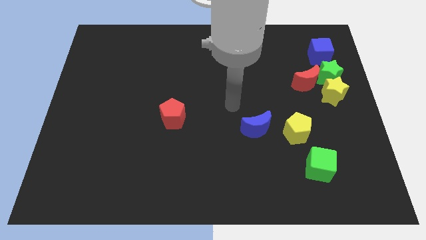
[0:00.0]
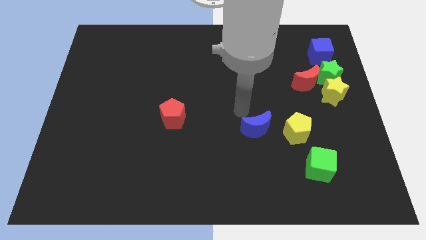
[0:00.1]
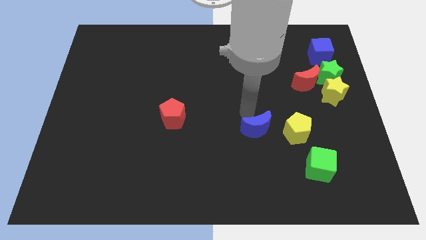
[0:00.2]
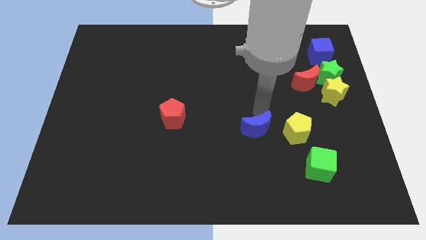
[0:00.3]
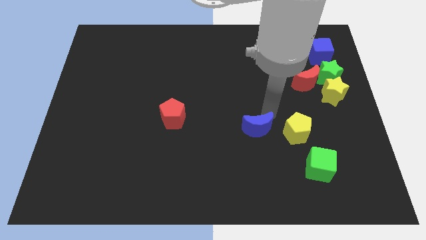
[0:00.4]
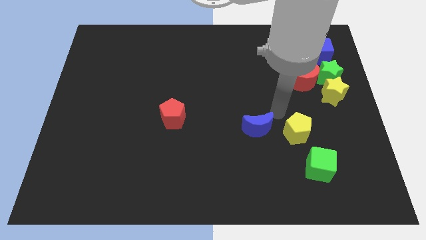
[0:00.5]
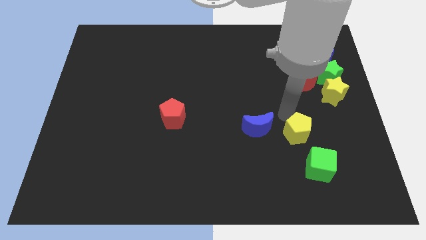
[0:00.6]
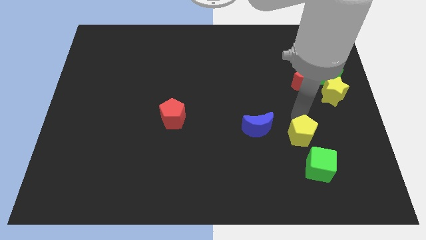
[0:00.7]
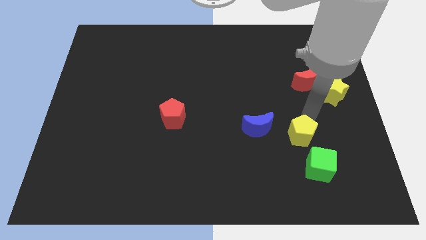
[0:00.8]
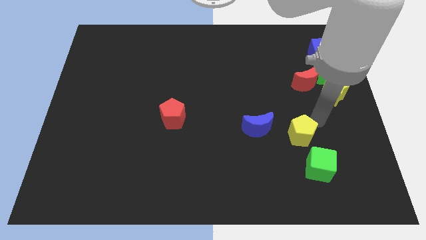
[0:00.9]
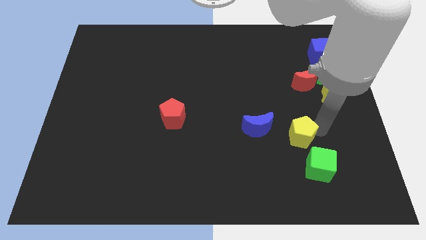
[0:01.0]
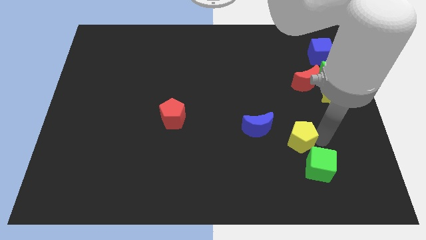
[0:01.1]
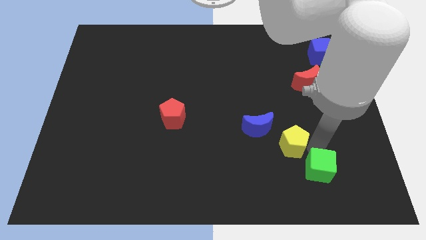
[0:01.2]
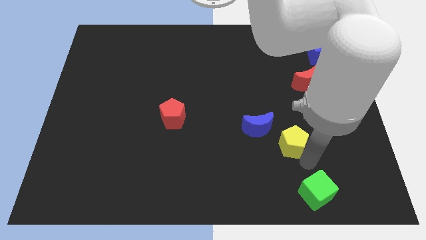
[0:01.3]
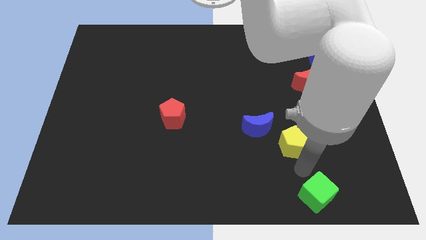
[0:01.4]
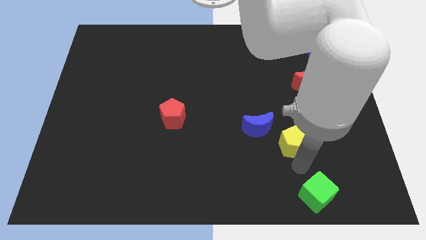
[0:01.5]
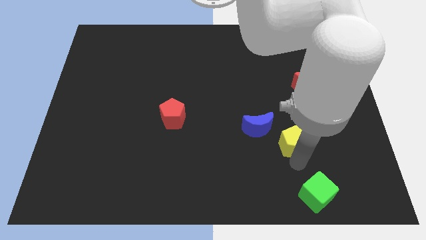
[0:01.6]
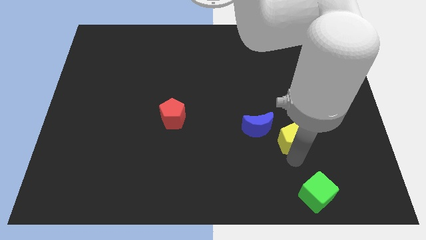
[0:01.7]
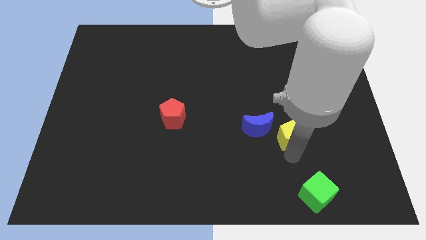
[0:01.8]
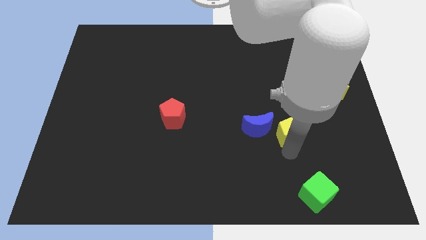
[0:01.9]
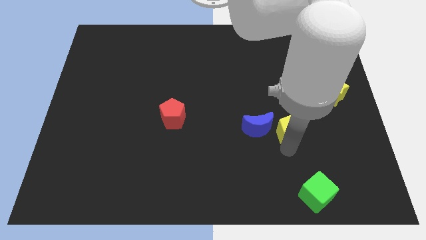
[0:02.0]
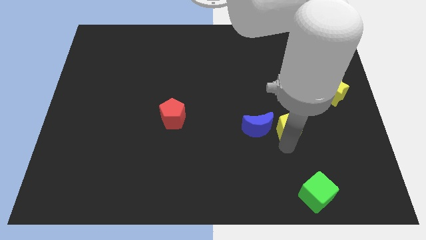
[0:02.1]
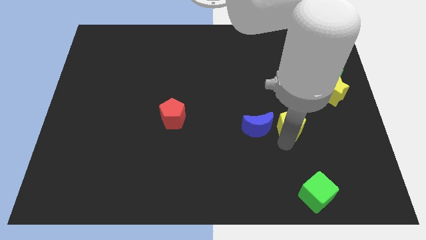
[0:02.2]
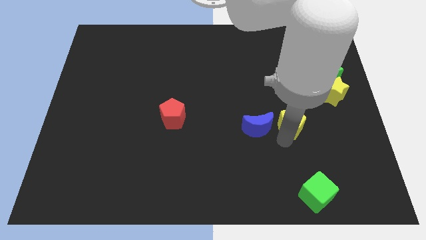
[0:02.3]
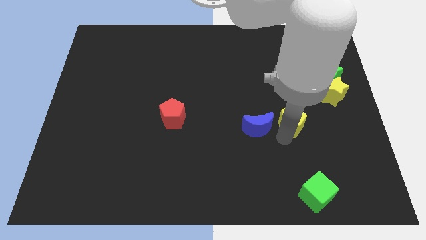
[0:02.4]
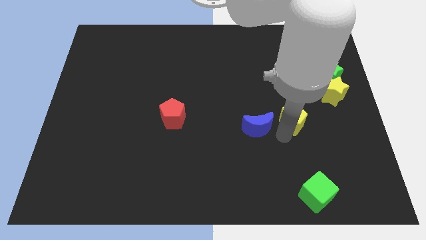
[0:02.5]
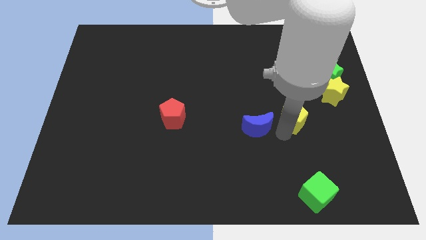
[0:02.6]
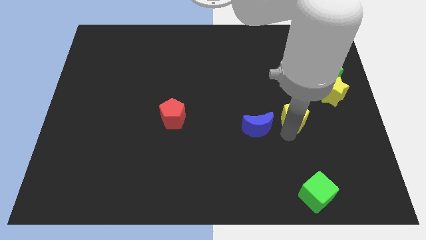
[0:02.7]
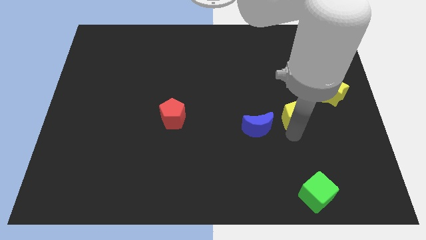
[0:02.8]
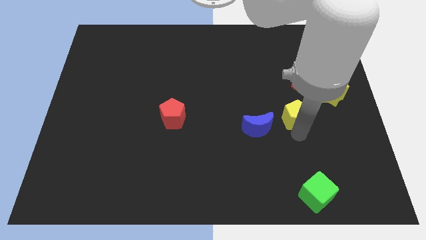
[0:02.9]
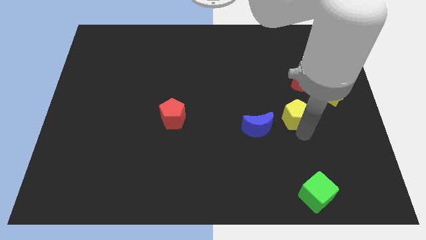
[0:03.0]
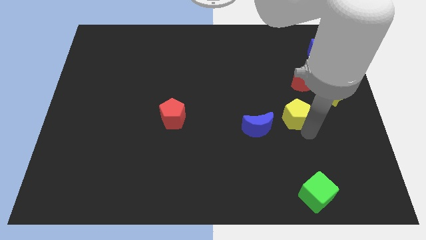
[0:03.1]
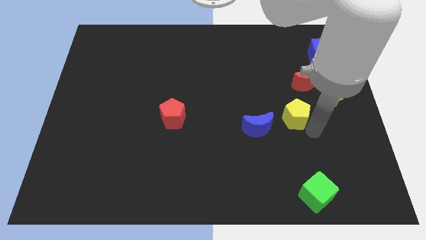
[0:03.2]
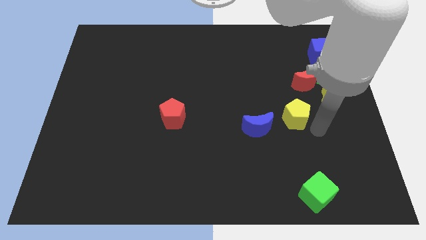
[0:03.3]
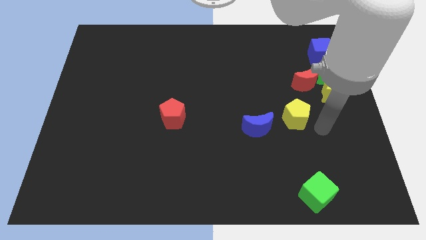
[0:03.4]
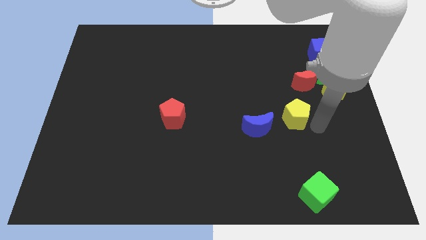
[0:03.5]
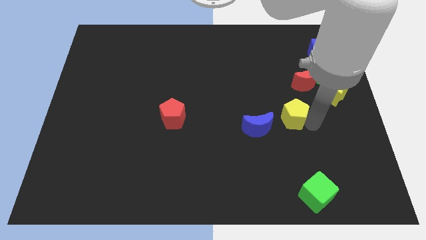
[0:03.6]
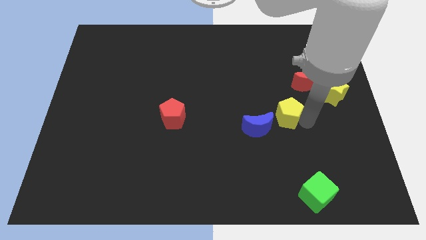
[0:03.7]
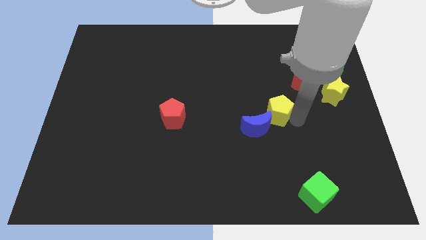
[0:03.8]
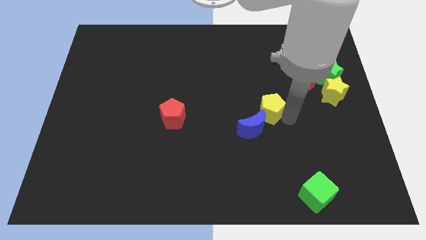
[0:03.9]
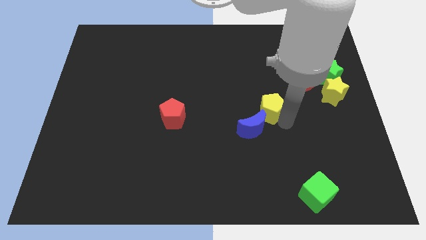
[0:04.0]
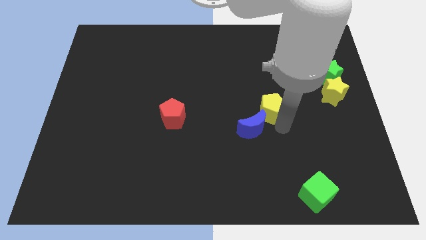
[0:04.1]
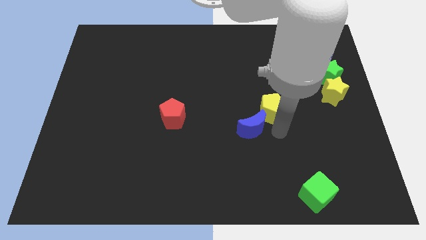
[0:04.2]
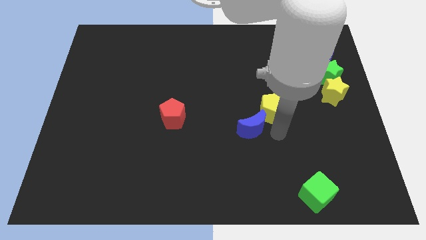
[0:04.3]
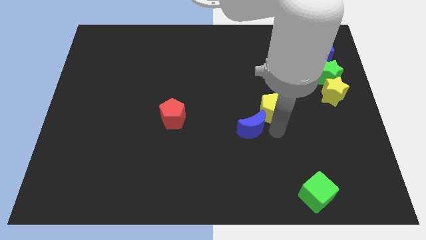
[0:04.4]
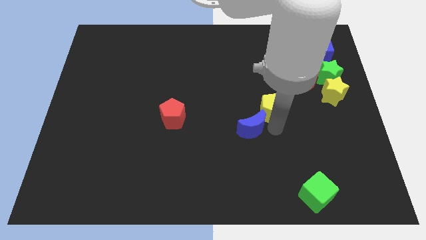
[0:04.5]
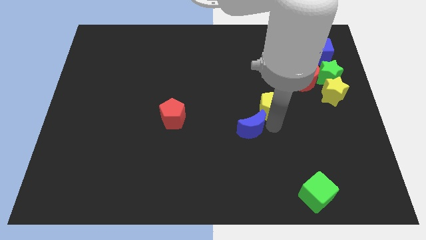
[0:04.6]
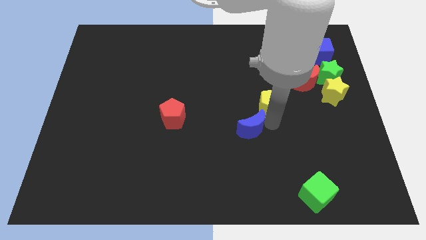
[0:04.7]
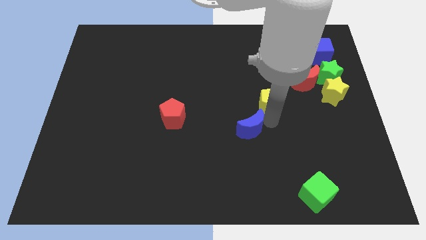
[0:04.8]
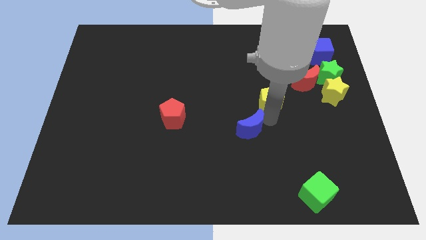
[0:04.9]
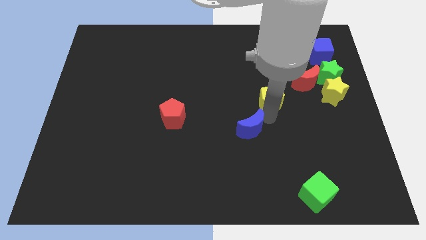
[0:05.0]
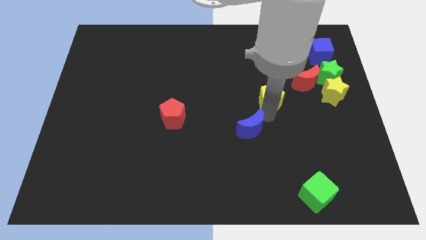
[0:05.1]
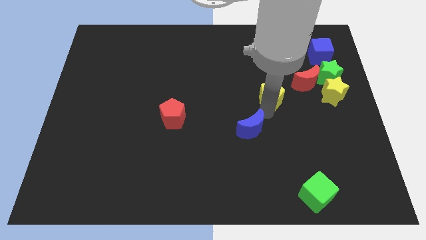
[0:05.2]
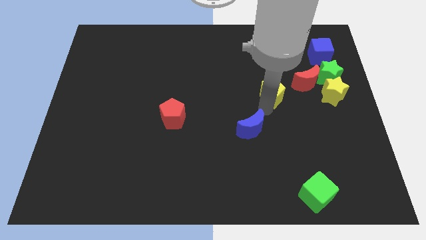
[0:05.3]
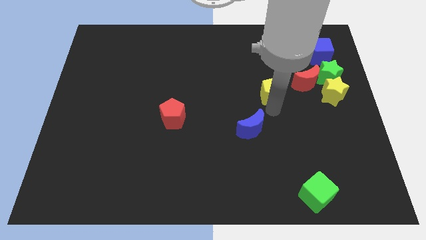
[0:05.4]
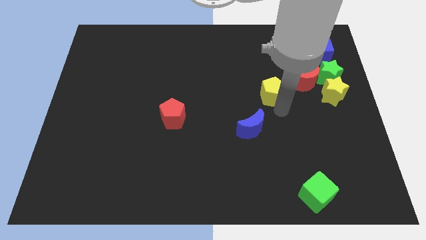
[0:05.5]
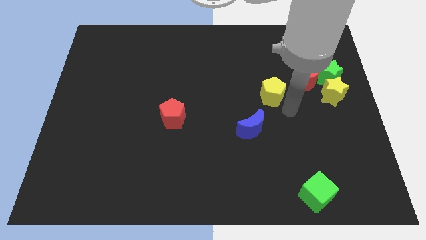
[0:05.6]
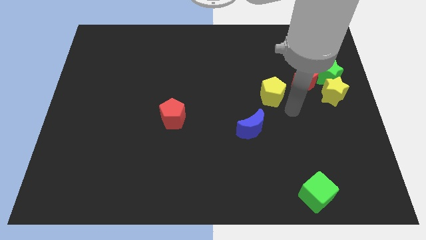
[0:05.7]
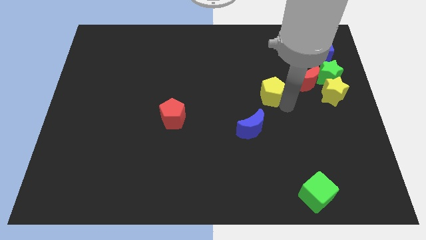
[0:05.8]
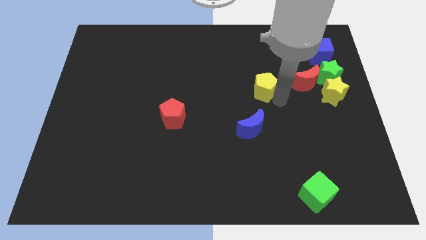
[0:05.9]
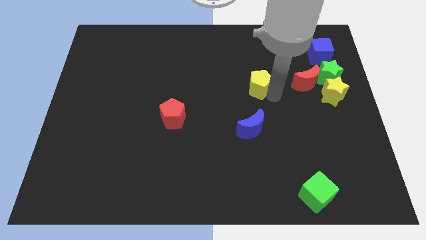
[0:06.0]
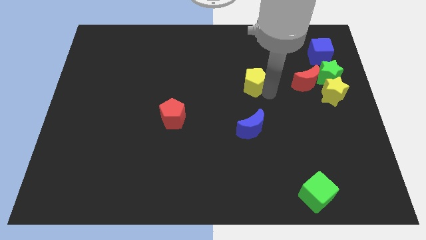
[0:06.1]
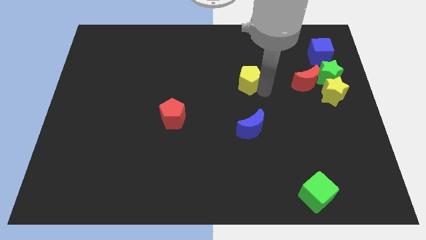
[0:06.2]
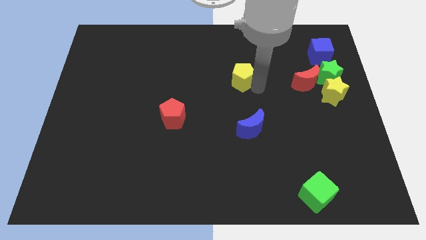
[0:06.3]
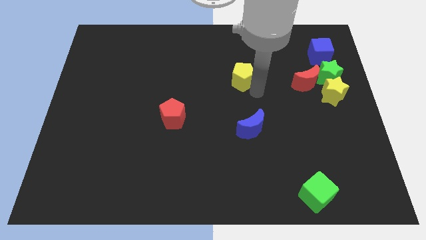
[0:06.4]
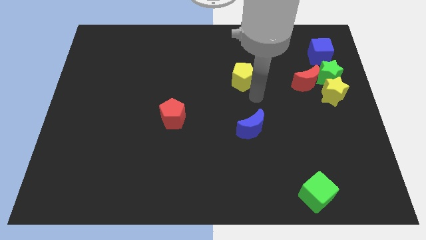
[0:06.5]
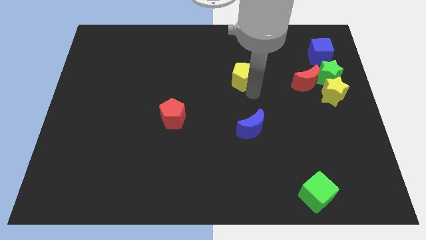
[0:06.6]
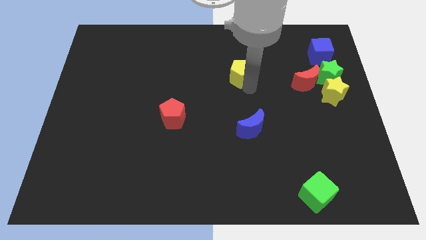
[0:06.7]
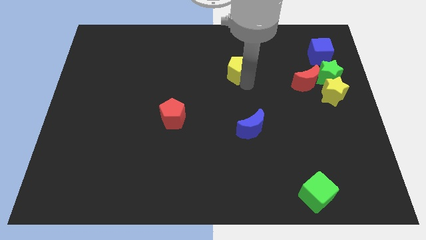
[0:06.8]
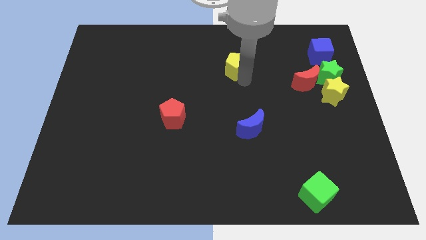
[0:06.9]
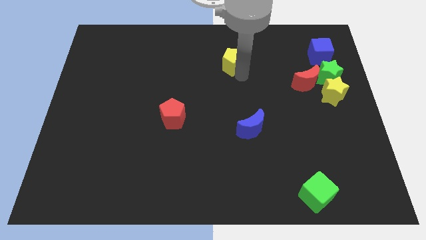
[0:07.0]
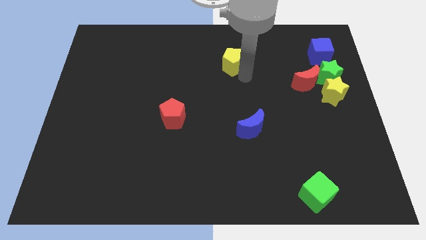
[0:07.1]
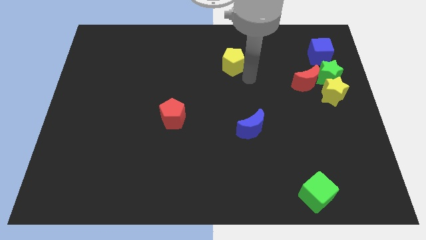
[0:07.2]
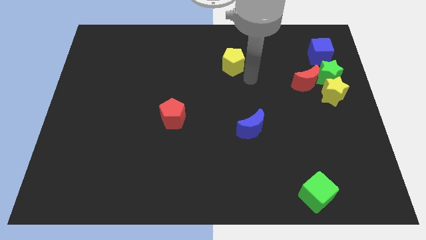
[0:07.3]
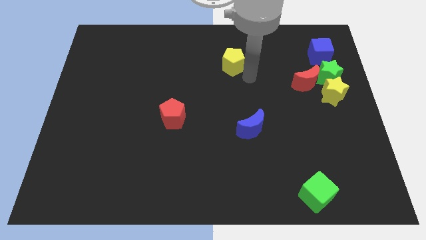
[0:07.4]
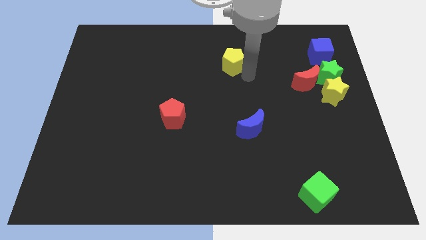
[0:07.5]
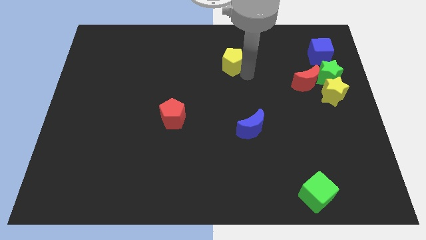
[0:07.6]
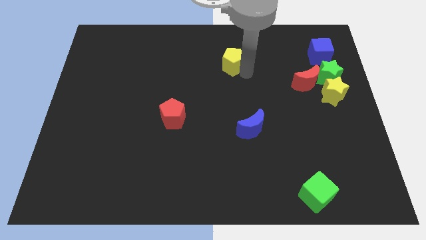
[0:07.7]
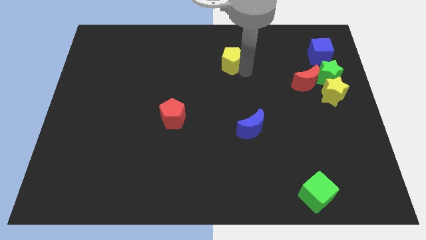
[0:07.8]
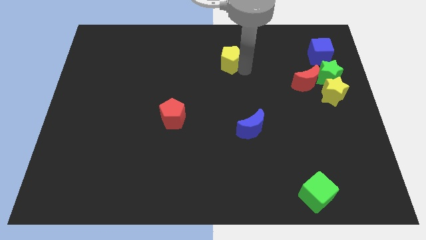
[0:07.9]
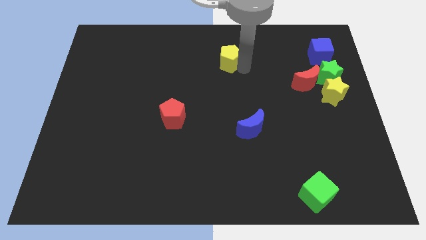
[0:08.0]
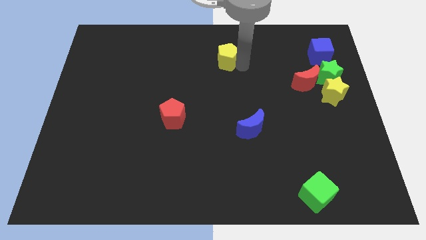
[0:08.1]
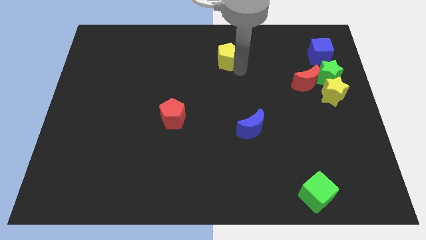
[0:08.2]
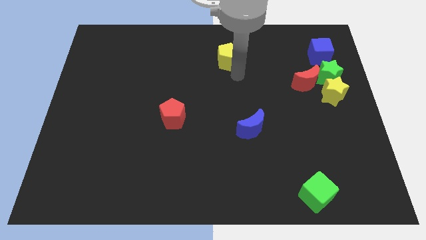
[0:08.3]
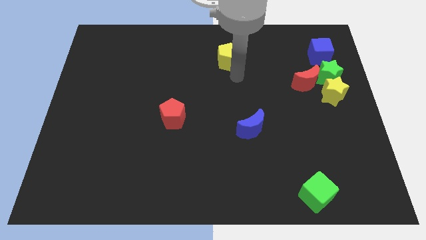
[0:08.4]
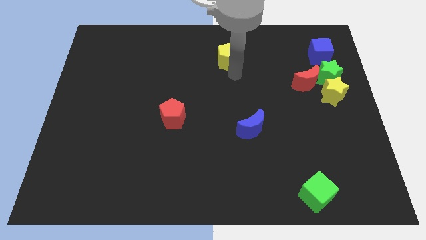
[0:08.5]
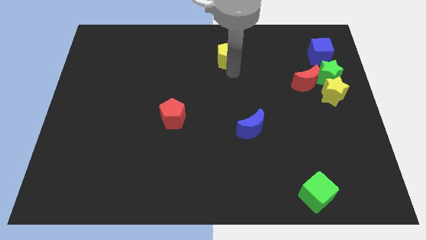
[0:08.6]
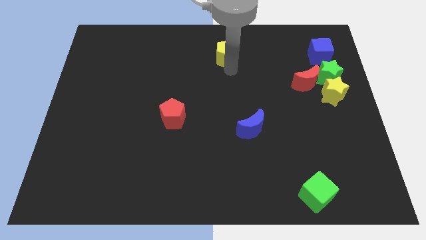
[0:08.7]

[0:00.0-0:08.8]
put the yellow pentagon to the towards your base
